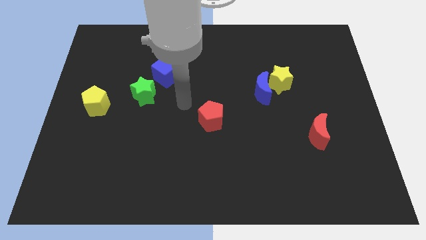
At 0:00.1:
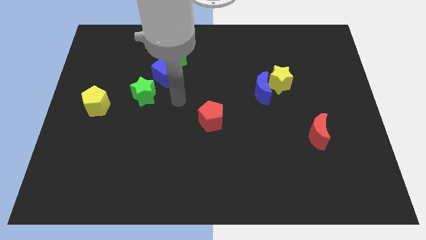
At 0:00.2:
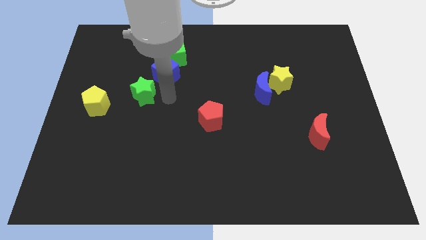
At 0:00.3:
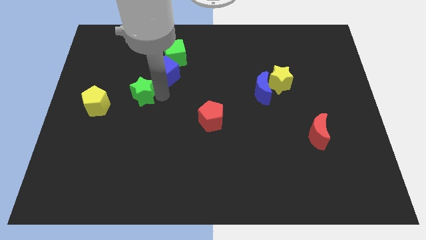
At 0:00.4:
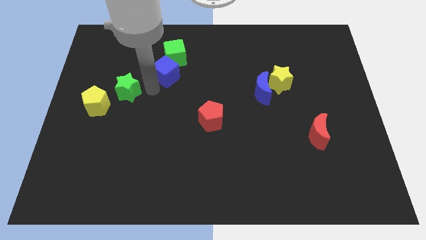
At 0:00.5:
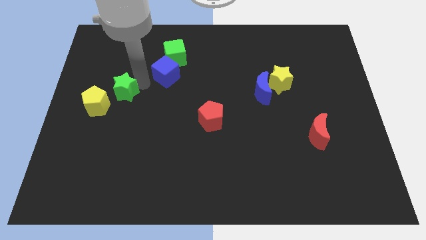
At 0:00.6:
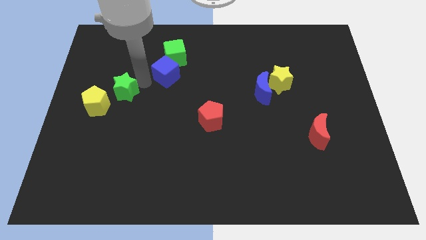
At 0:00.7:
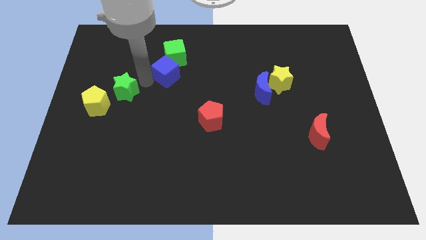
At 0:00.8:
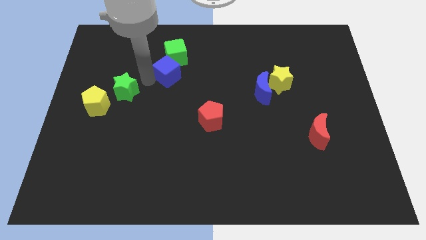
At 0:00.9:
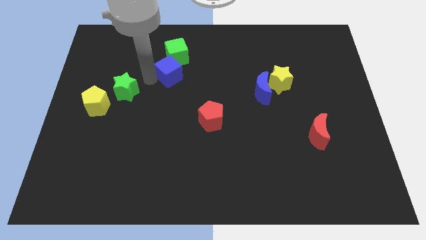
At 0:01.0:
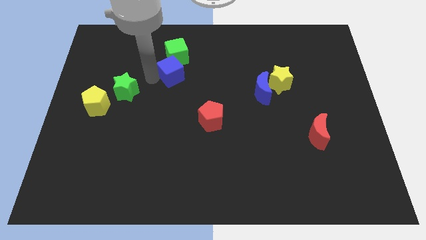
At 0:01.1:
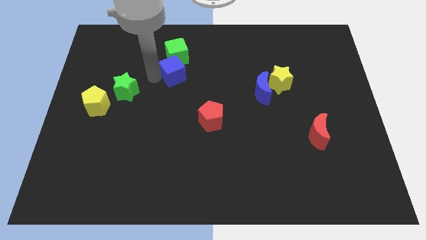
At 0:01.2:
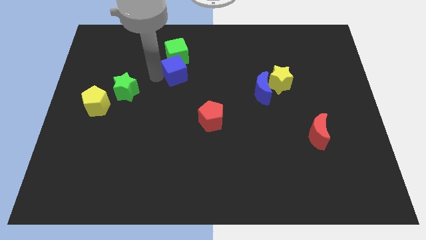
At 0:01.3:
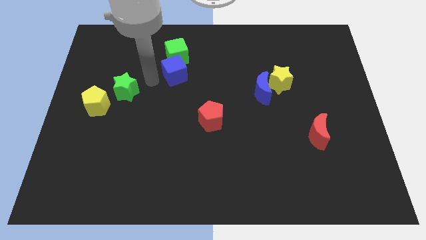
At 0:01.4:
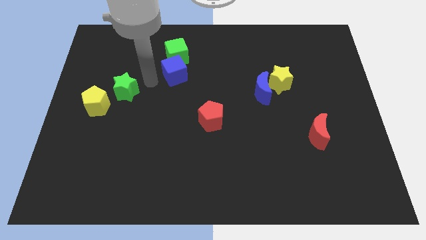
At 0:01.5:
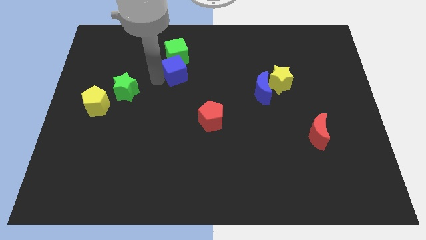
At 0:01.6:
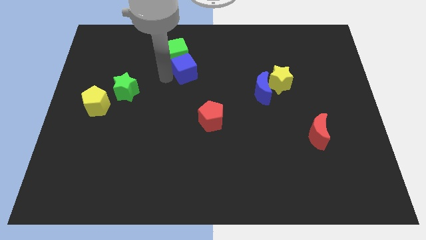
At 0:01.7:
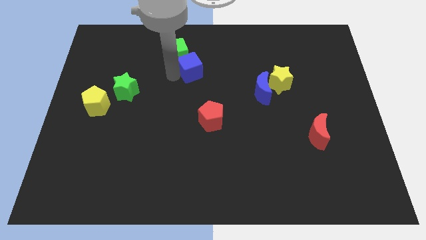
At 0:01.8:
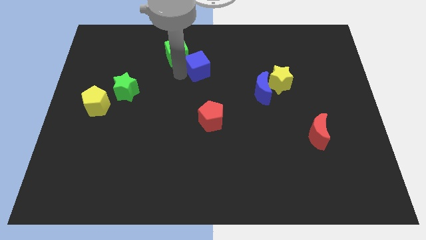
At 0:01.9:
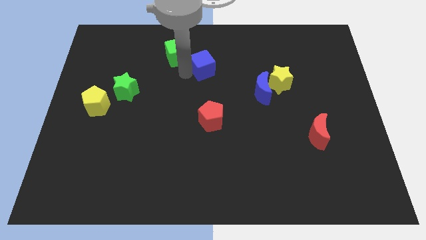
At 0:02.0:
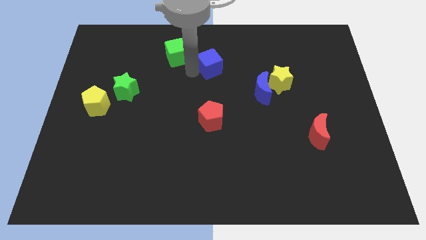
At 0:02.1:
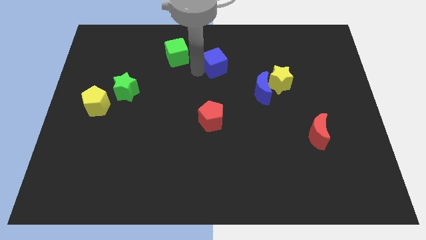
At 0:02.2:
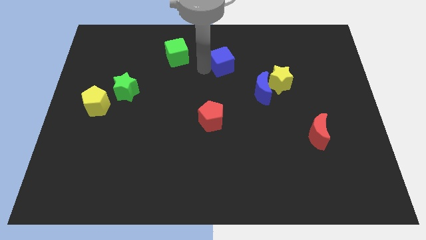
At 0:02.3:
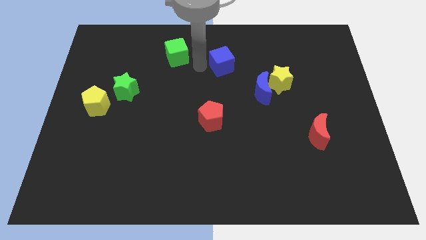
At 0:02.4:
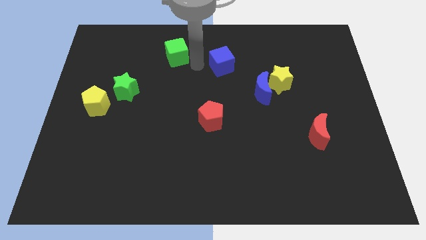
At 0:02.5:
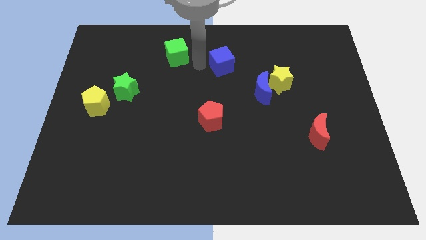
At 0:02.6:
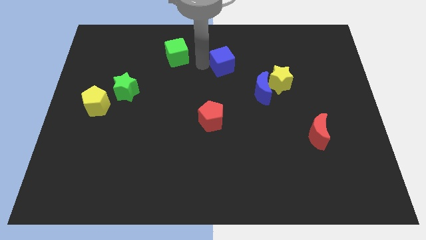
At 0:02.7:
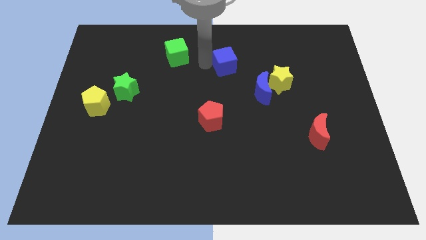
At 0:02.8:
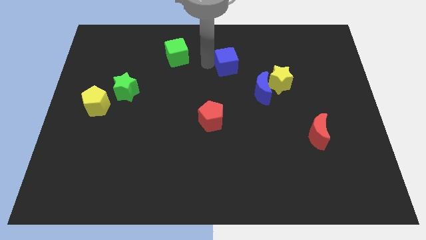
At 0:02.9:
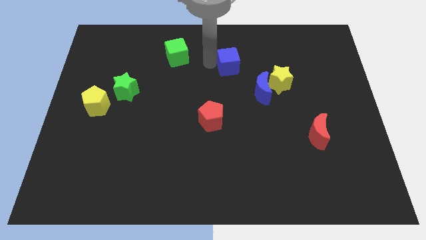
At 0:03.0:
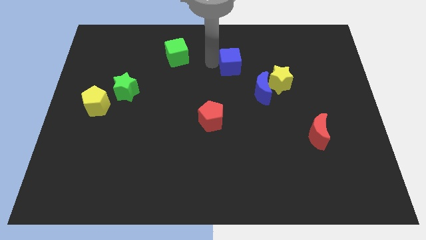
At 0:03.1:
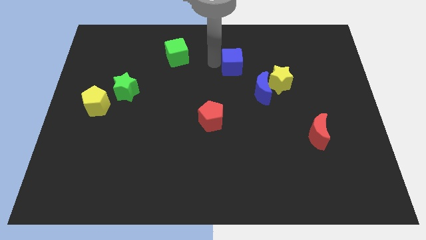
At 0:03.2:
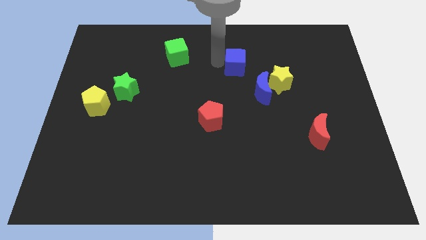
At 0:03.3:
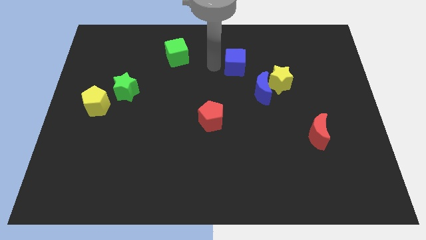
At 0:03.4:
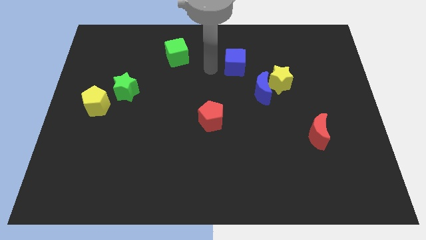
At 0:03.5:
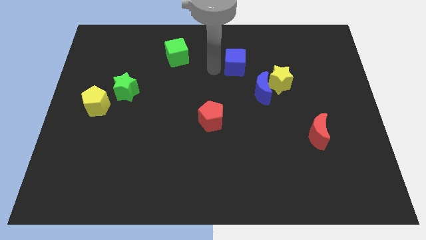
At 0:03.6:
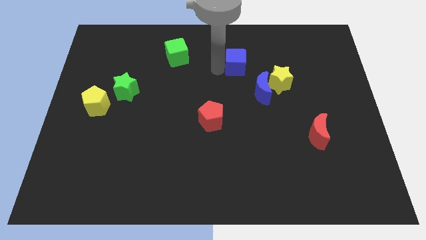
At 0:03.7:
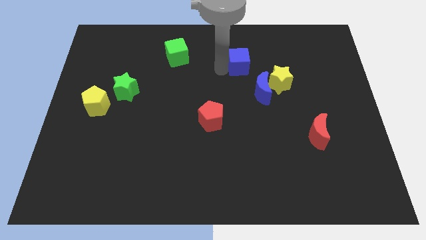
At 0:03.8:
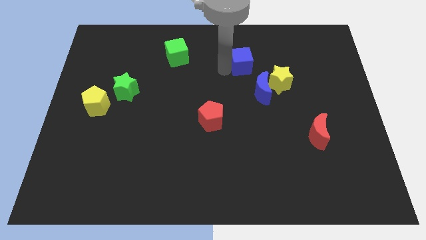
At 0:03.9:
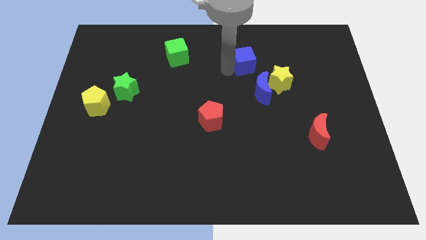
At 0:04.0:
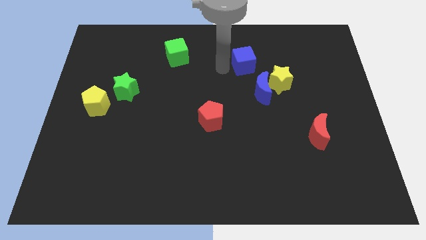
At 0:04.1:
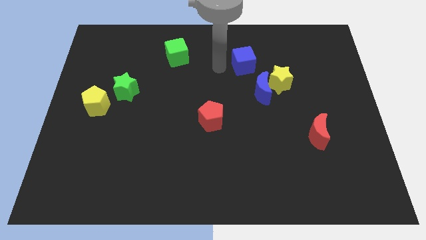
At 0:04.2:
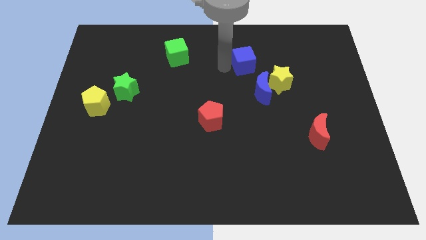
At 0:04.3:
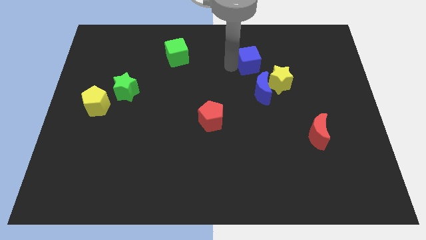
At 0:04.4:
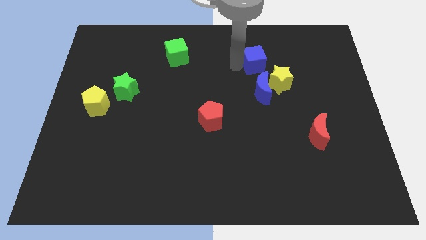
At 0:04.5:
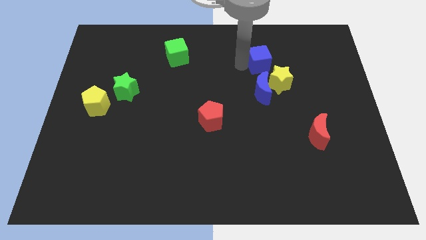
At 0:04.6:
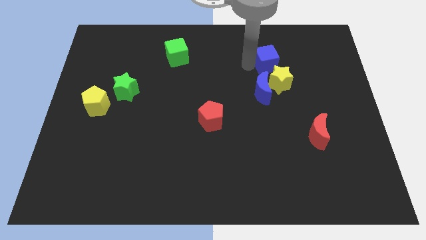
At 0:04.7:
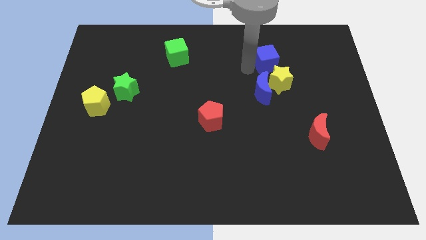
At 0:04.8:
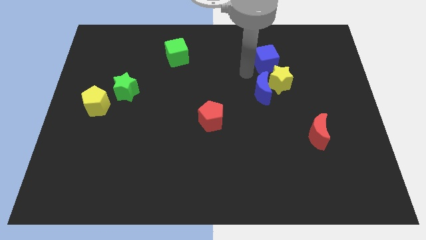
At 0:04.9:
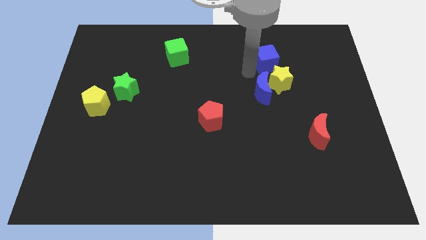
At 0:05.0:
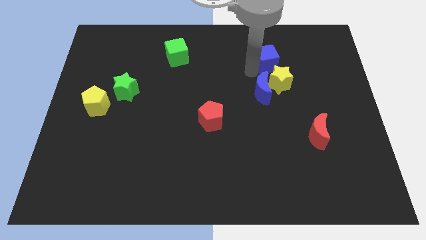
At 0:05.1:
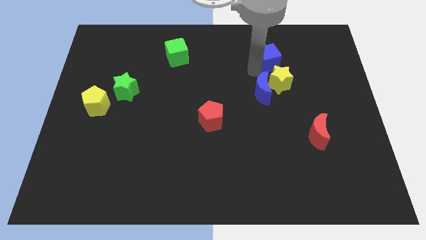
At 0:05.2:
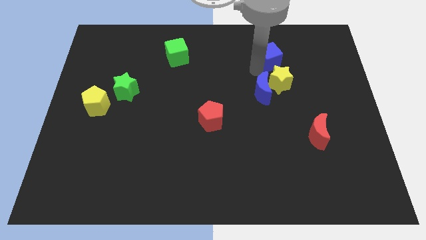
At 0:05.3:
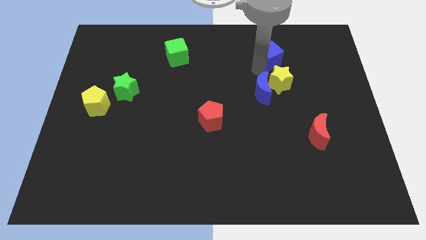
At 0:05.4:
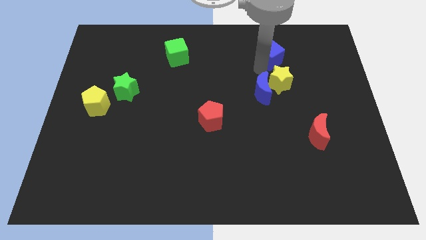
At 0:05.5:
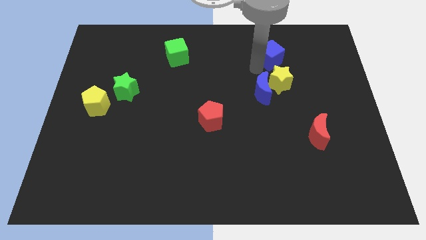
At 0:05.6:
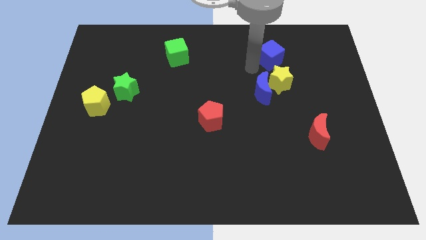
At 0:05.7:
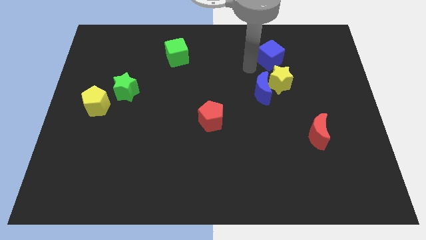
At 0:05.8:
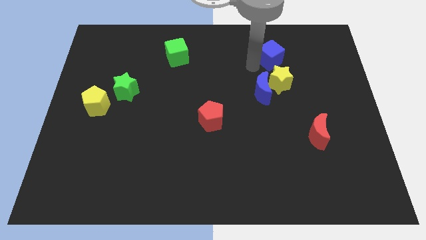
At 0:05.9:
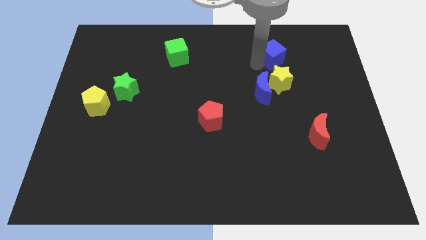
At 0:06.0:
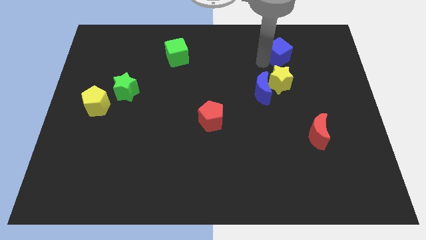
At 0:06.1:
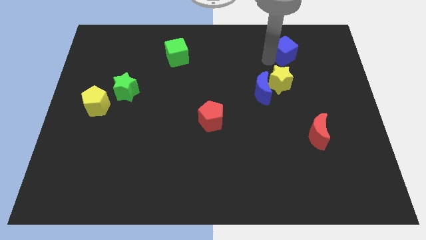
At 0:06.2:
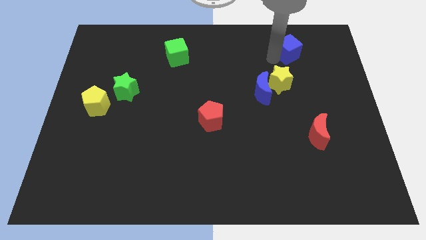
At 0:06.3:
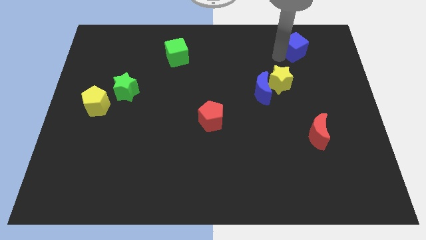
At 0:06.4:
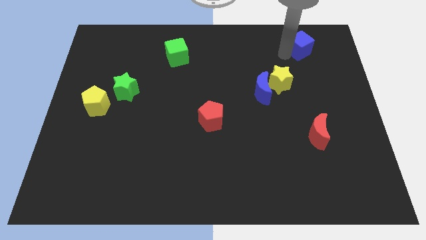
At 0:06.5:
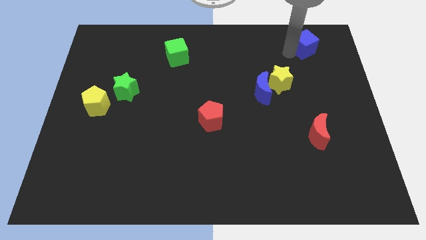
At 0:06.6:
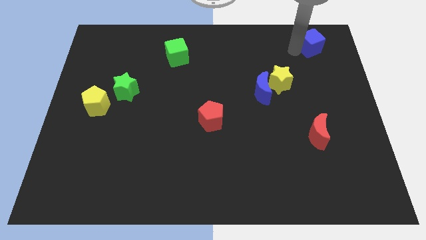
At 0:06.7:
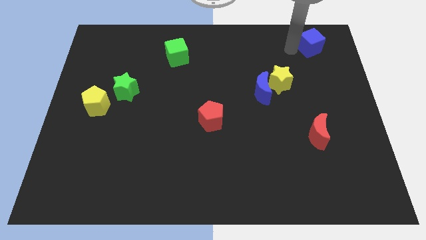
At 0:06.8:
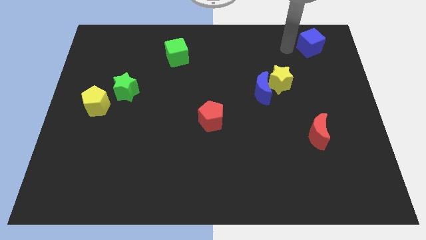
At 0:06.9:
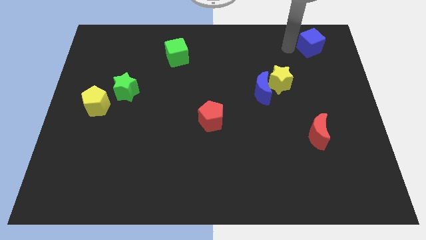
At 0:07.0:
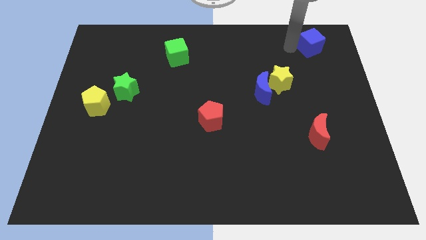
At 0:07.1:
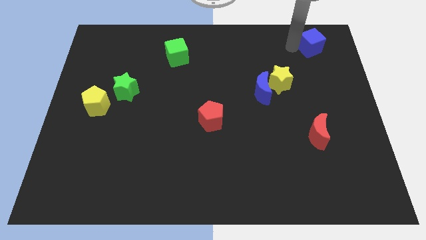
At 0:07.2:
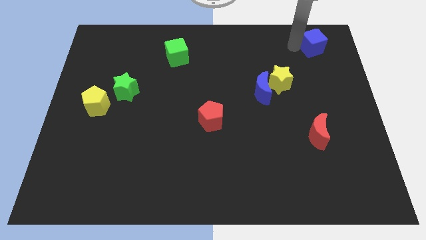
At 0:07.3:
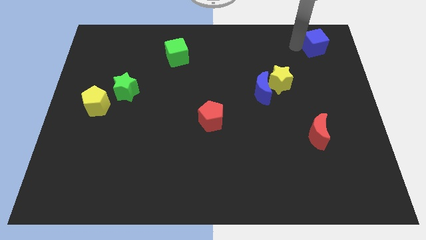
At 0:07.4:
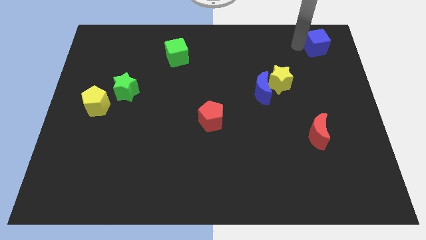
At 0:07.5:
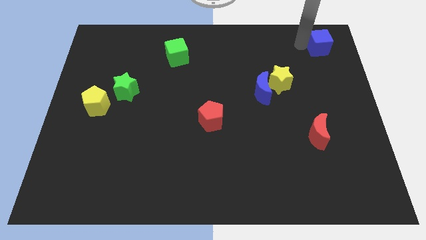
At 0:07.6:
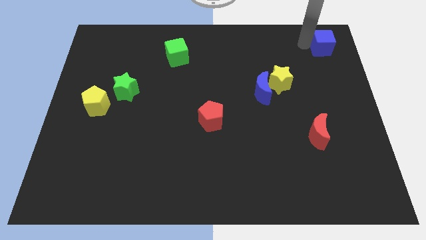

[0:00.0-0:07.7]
move the blue cube to the upper right corner
